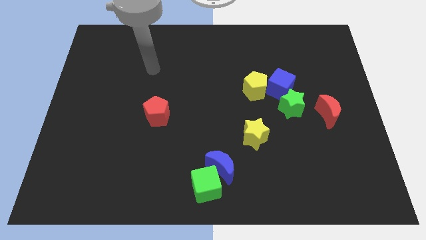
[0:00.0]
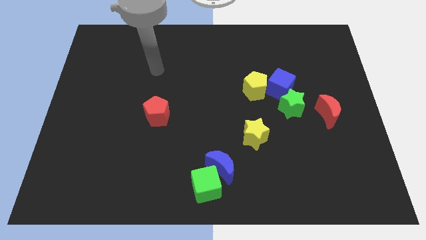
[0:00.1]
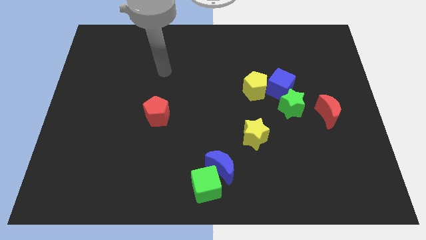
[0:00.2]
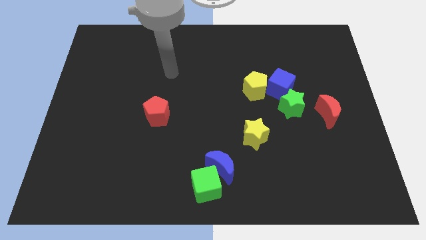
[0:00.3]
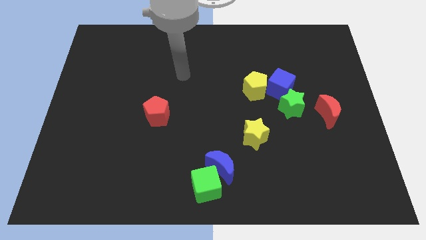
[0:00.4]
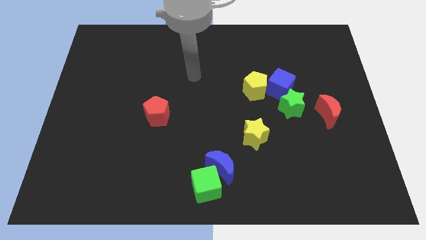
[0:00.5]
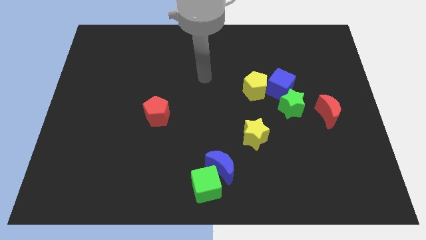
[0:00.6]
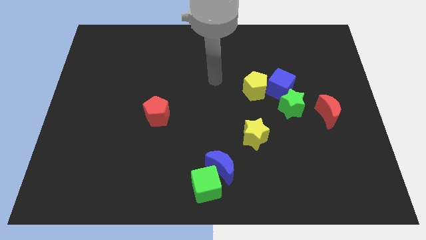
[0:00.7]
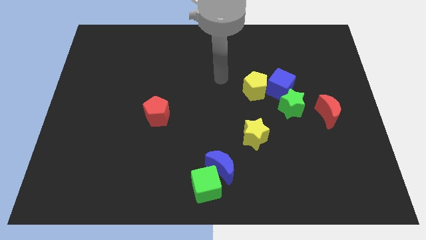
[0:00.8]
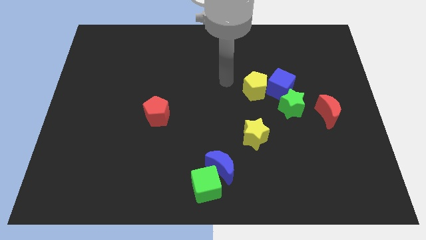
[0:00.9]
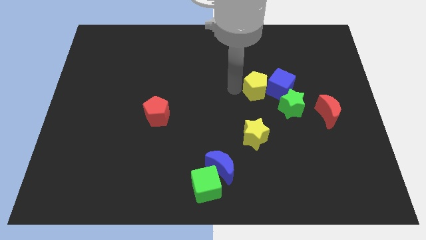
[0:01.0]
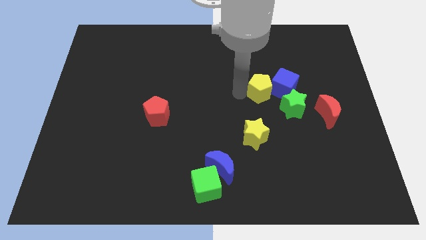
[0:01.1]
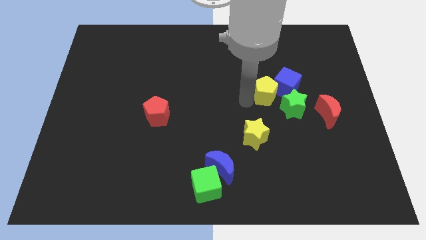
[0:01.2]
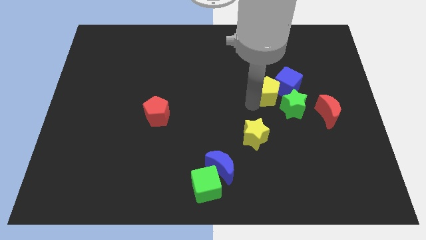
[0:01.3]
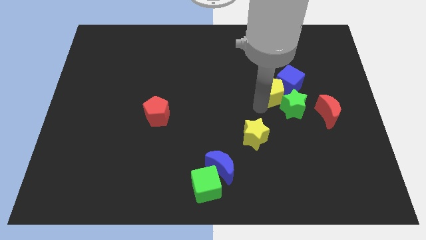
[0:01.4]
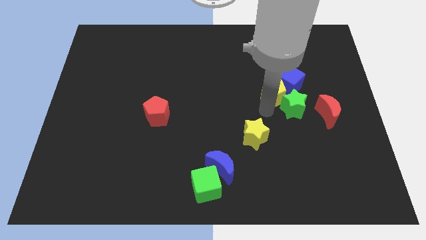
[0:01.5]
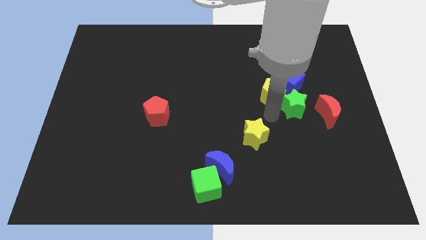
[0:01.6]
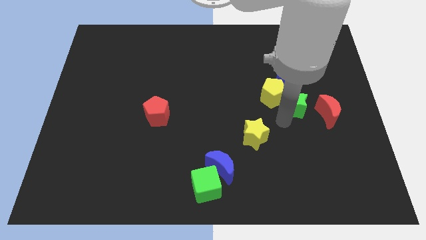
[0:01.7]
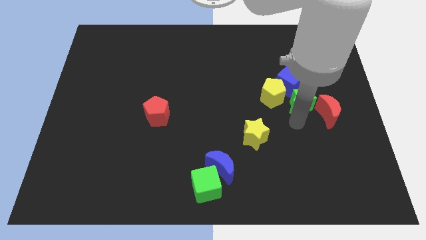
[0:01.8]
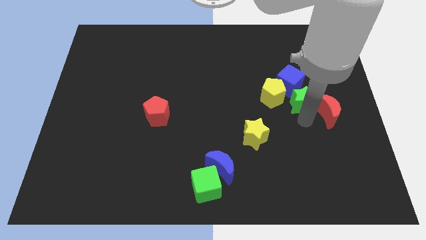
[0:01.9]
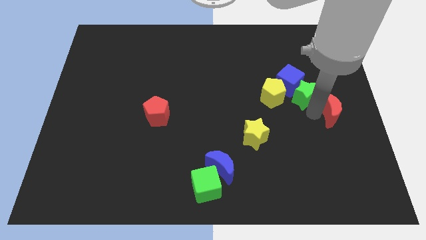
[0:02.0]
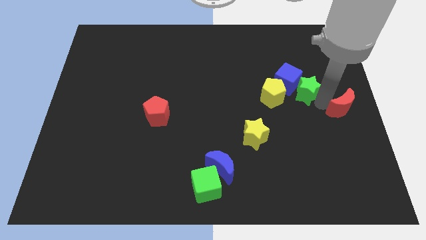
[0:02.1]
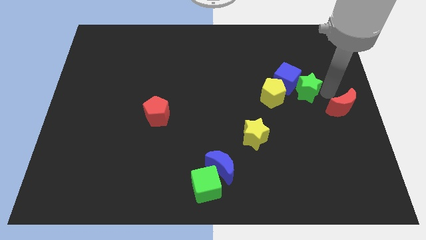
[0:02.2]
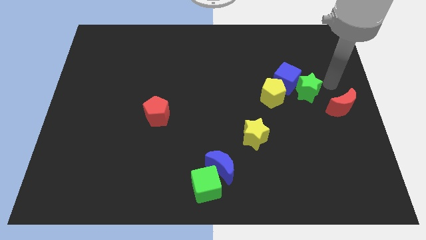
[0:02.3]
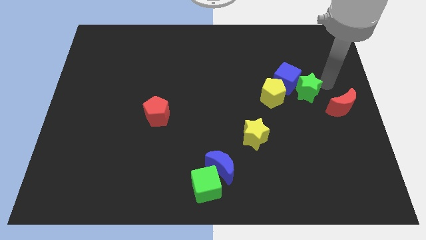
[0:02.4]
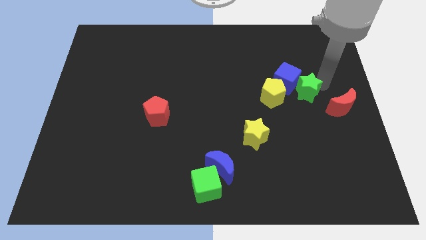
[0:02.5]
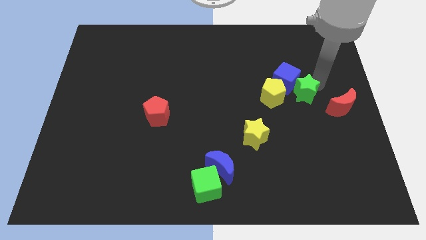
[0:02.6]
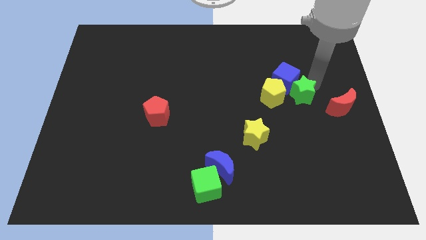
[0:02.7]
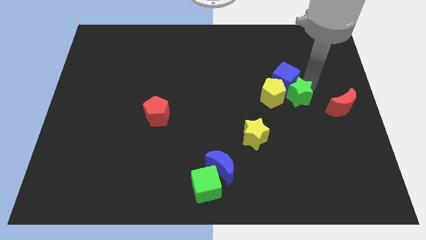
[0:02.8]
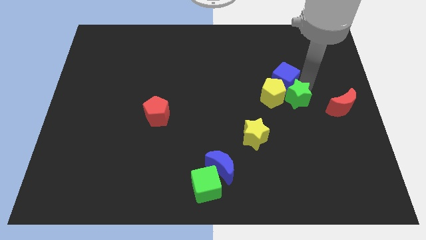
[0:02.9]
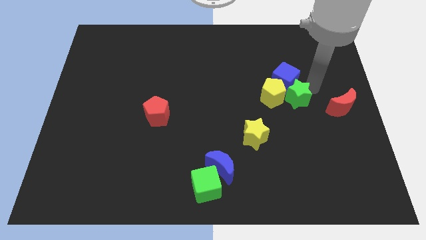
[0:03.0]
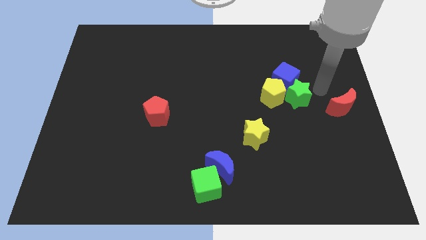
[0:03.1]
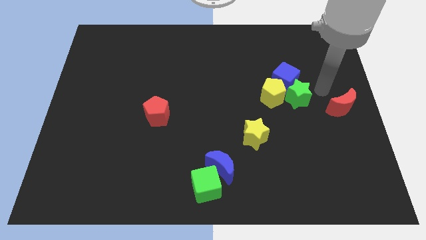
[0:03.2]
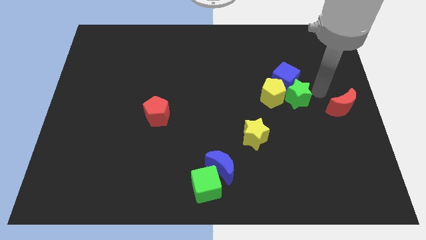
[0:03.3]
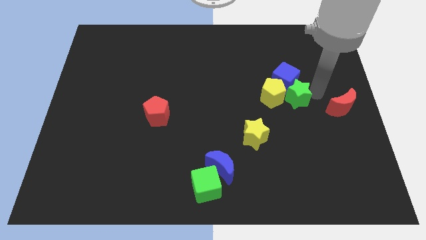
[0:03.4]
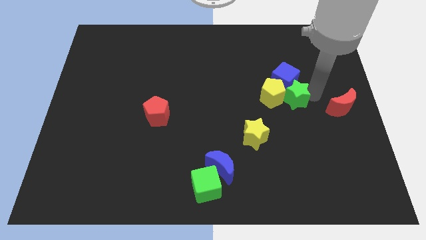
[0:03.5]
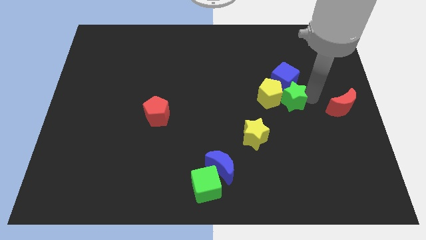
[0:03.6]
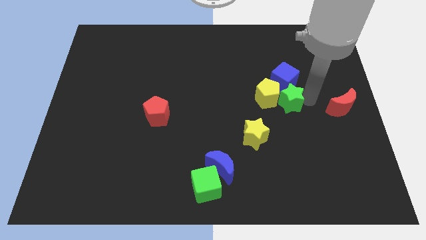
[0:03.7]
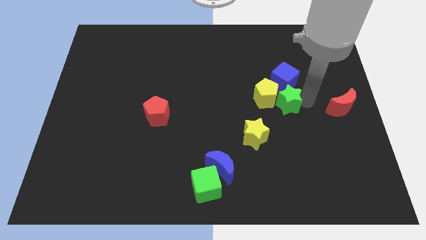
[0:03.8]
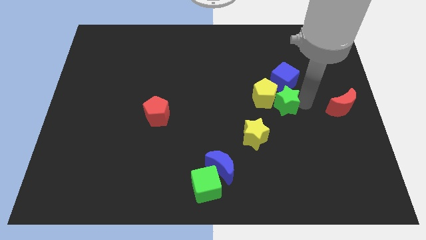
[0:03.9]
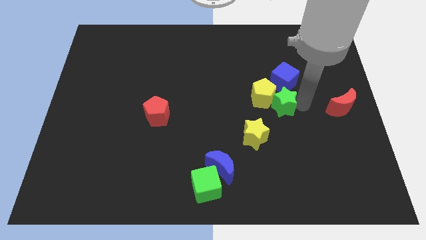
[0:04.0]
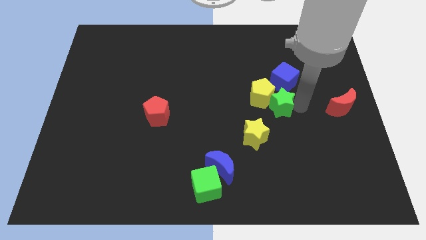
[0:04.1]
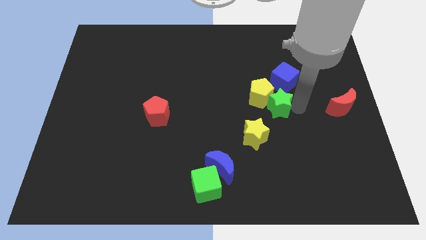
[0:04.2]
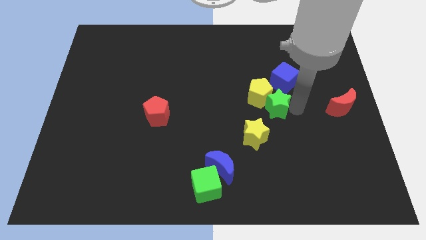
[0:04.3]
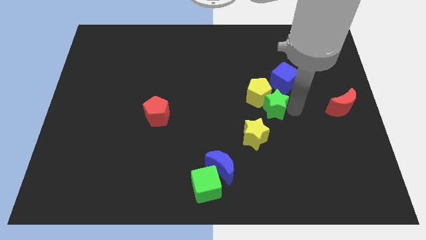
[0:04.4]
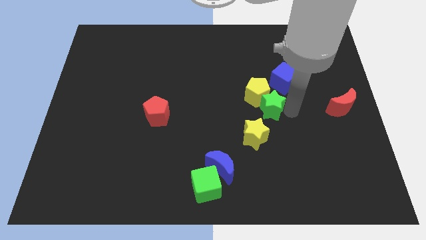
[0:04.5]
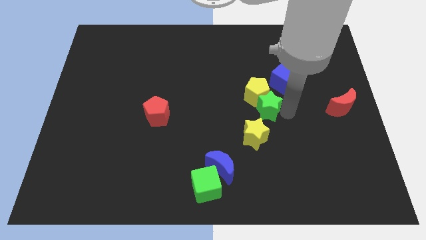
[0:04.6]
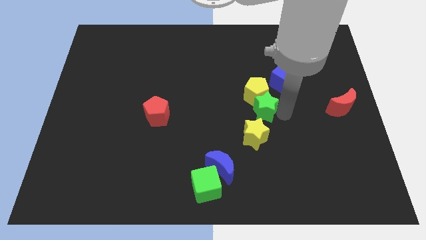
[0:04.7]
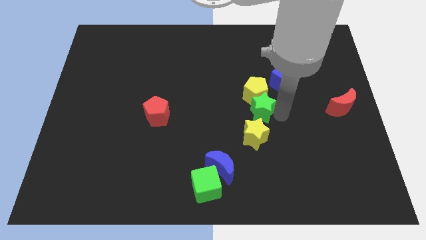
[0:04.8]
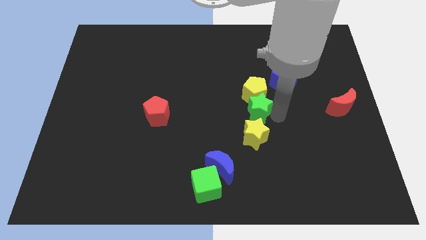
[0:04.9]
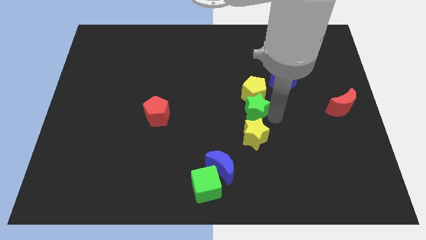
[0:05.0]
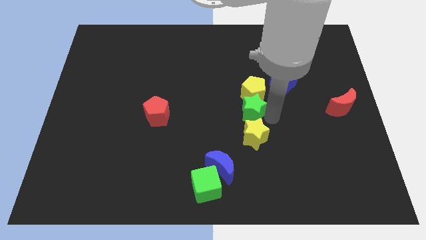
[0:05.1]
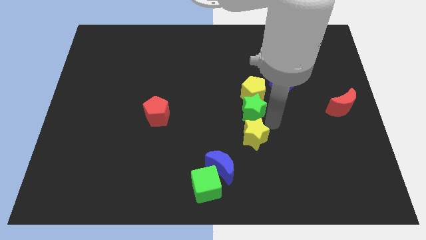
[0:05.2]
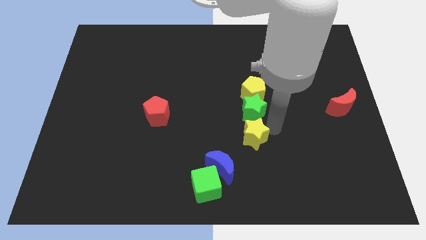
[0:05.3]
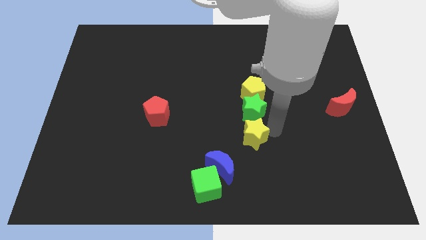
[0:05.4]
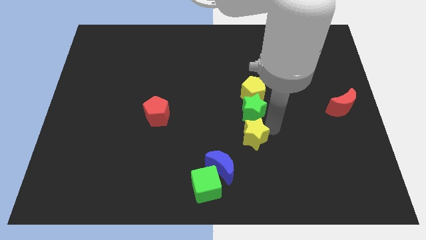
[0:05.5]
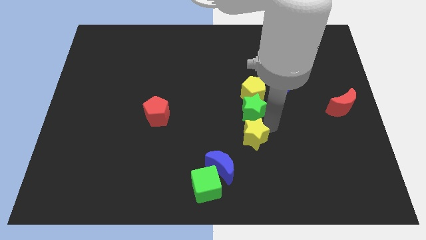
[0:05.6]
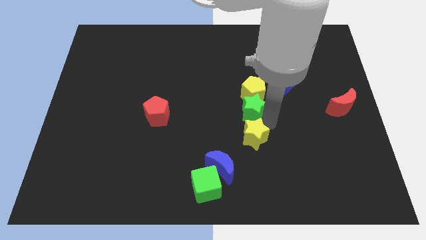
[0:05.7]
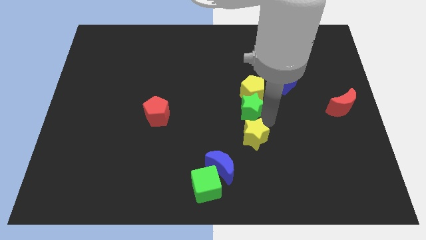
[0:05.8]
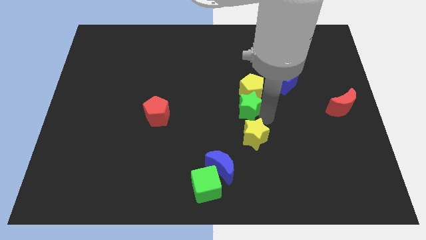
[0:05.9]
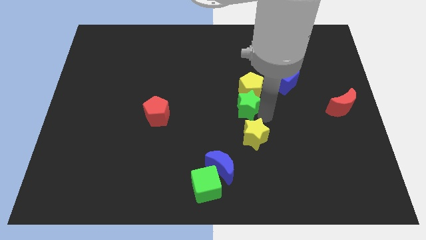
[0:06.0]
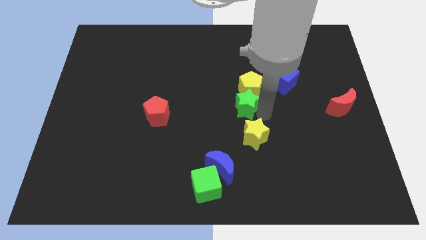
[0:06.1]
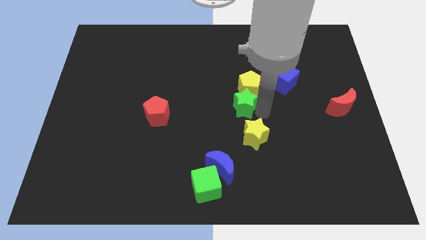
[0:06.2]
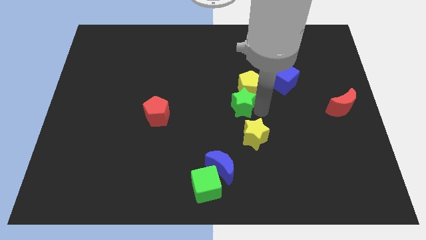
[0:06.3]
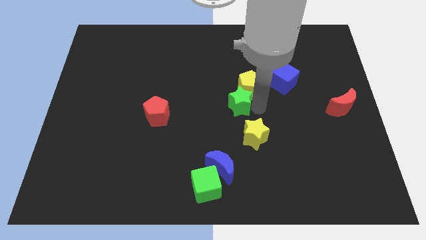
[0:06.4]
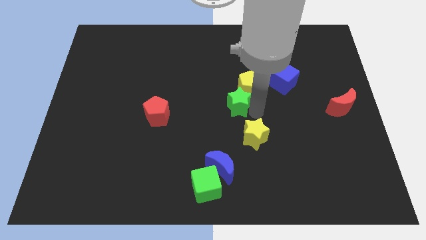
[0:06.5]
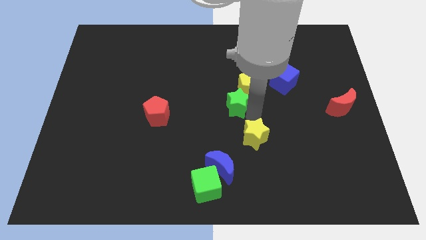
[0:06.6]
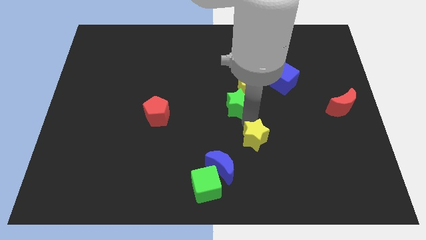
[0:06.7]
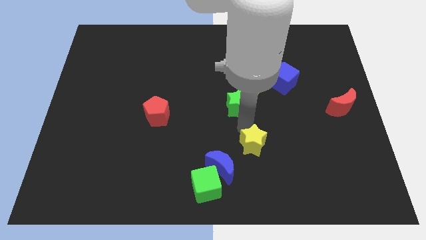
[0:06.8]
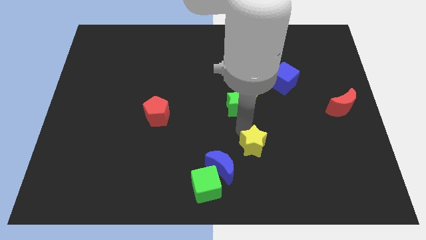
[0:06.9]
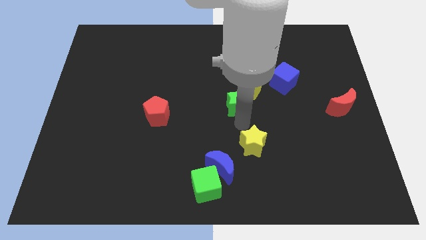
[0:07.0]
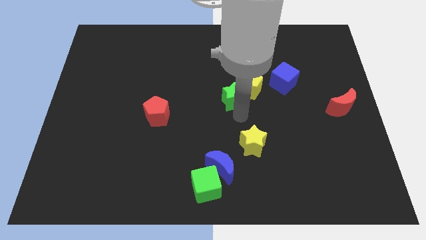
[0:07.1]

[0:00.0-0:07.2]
slightly slide the green star upwards and left diagonally

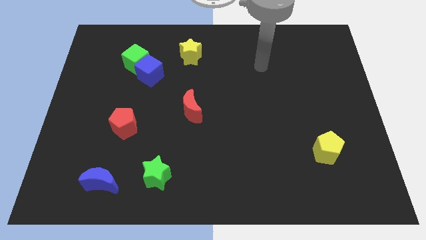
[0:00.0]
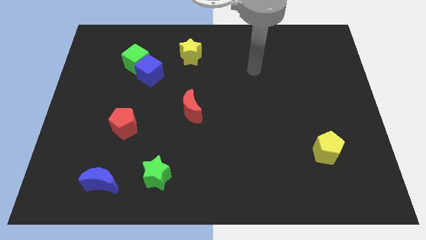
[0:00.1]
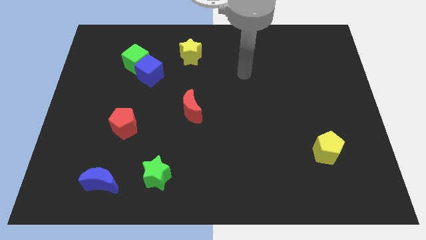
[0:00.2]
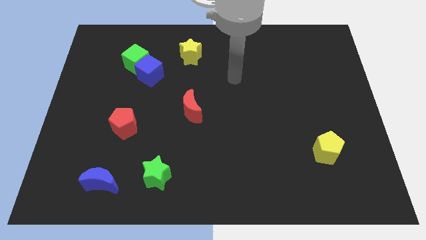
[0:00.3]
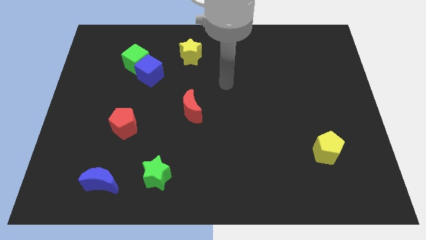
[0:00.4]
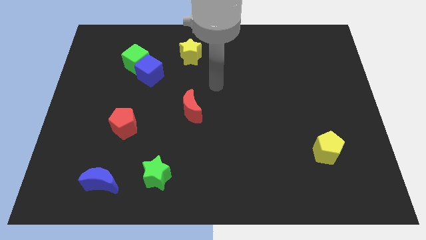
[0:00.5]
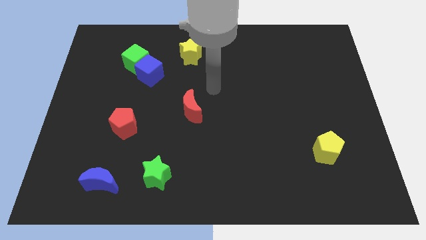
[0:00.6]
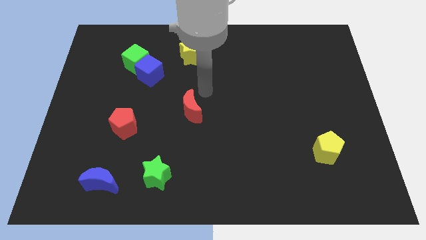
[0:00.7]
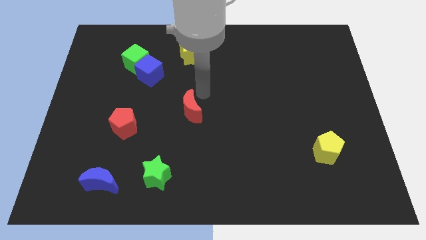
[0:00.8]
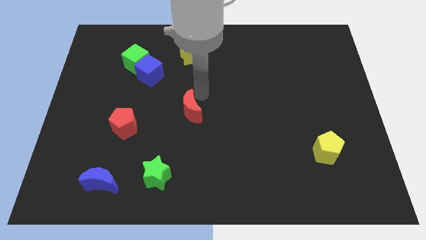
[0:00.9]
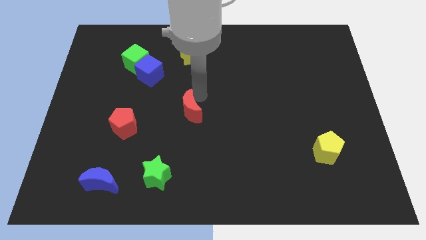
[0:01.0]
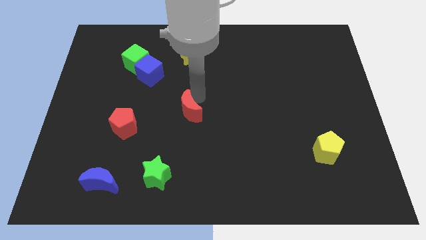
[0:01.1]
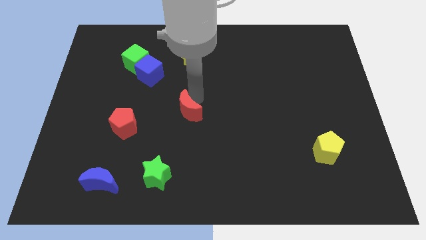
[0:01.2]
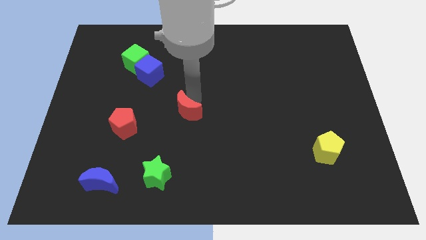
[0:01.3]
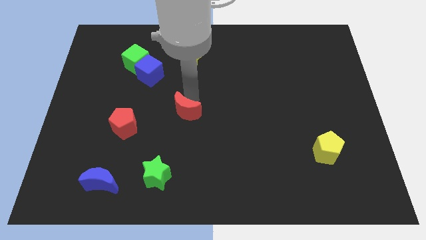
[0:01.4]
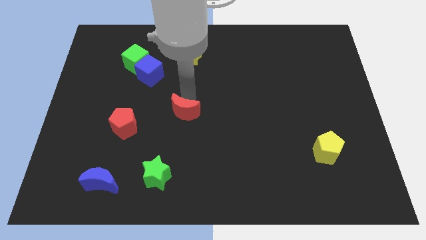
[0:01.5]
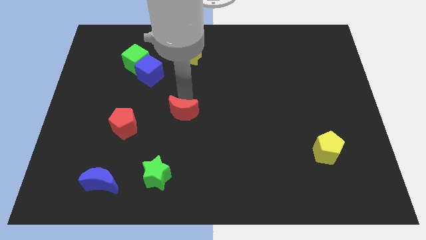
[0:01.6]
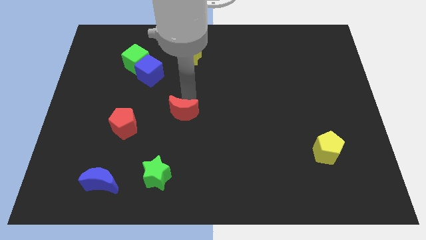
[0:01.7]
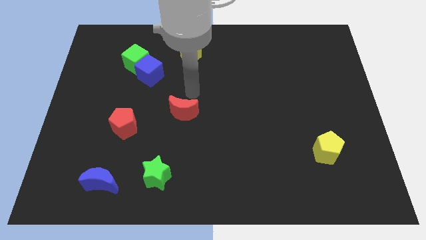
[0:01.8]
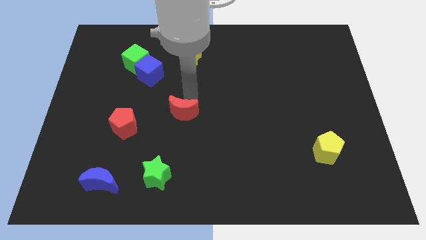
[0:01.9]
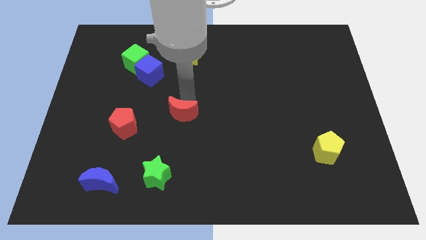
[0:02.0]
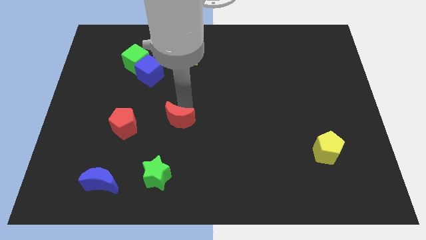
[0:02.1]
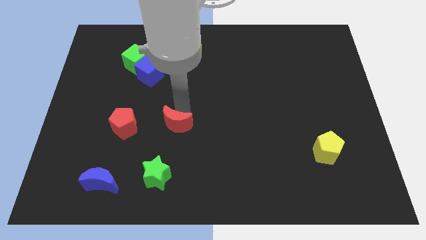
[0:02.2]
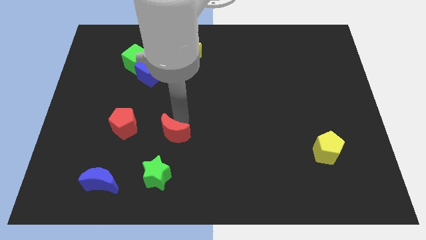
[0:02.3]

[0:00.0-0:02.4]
push the red moon a little down and to the left
